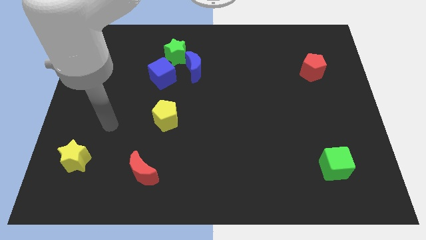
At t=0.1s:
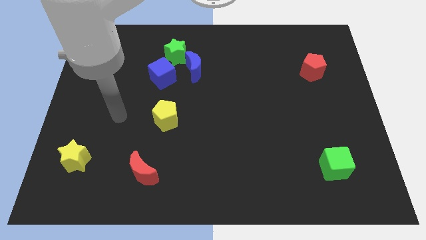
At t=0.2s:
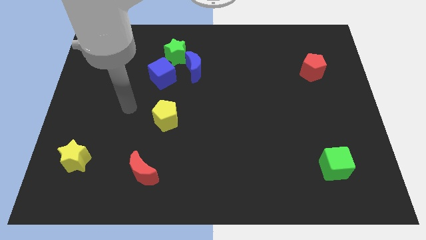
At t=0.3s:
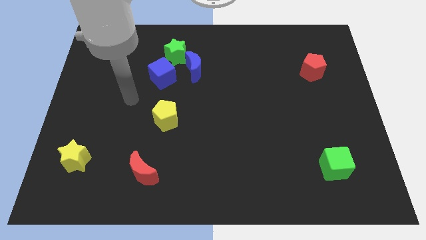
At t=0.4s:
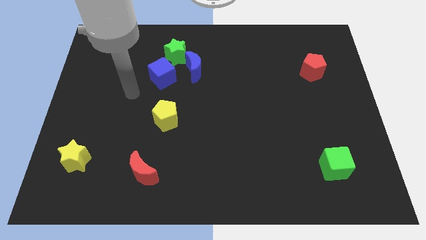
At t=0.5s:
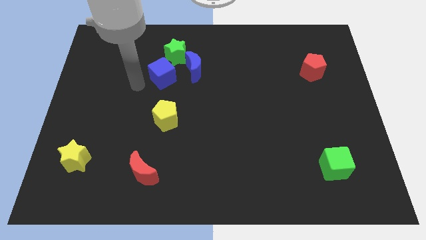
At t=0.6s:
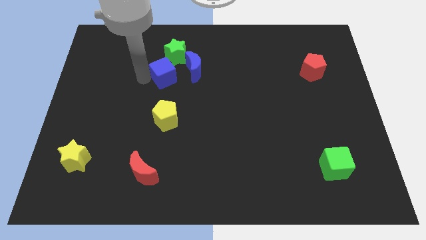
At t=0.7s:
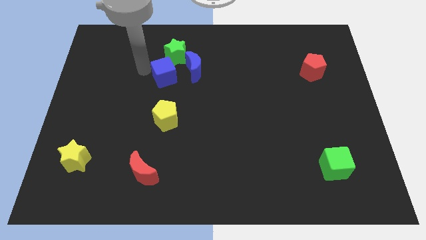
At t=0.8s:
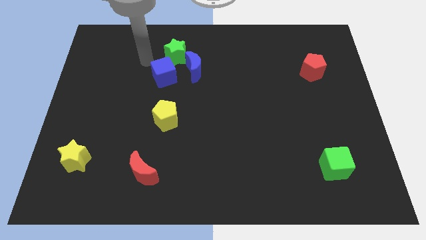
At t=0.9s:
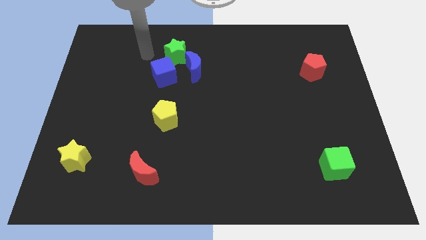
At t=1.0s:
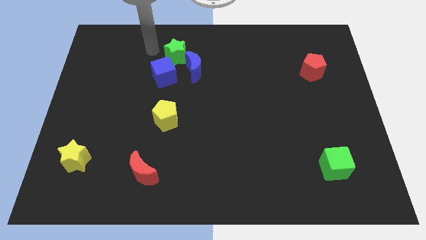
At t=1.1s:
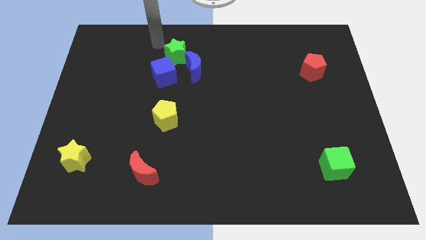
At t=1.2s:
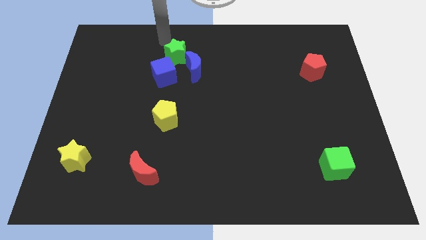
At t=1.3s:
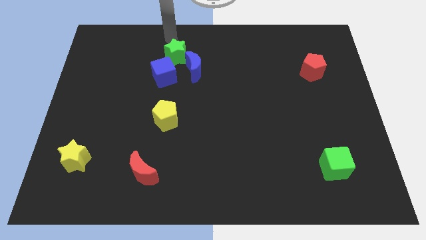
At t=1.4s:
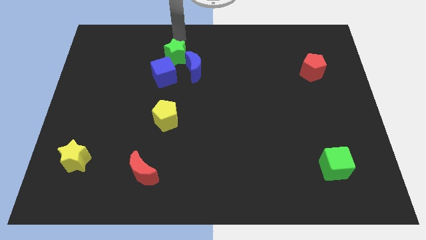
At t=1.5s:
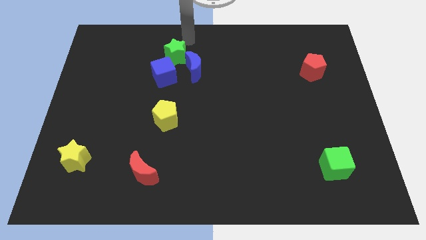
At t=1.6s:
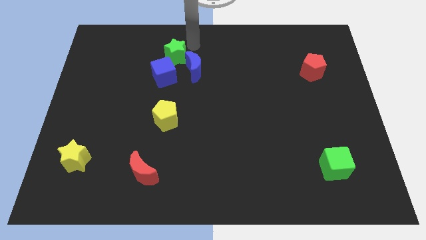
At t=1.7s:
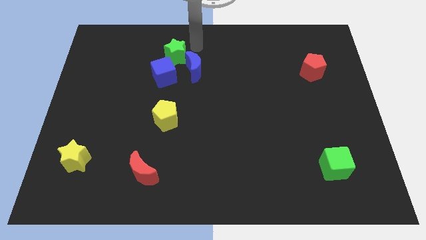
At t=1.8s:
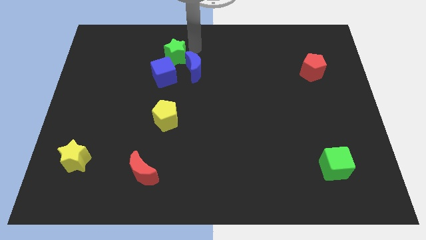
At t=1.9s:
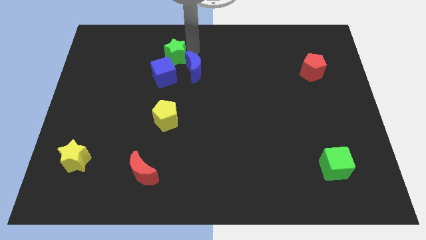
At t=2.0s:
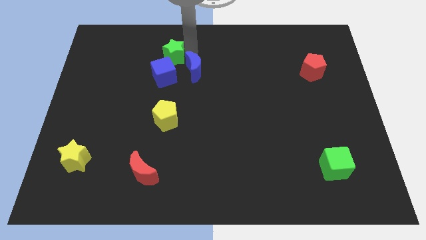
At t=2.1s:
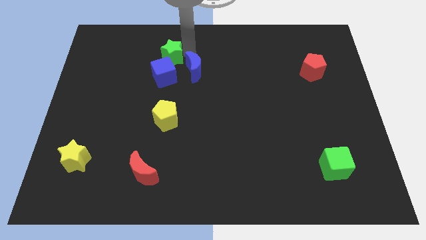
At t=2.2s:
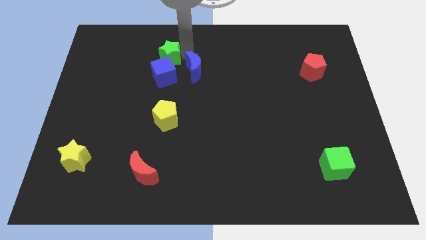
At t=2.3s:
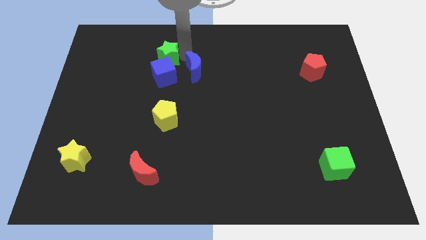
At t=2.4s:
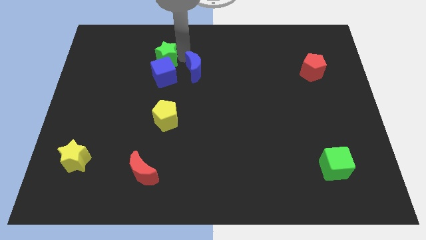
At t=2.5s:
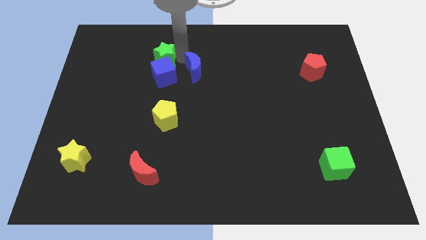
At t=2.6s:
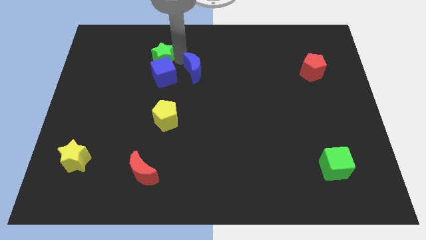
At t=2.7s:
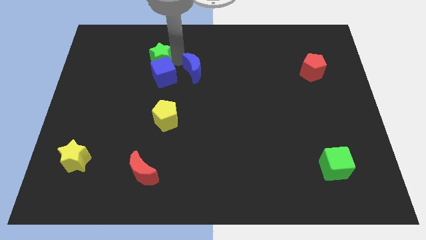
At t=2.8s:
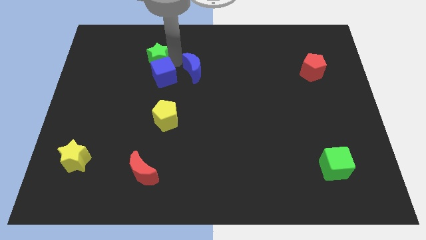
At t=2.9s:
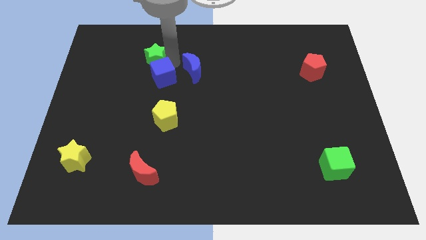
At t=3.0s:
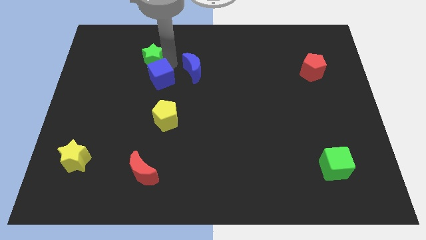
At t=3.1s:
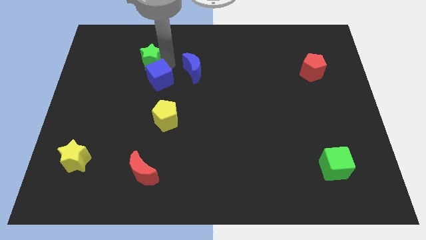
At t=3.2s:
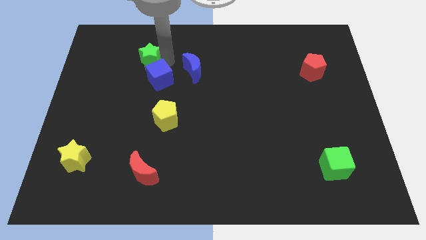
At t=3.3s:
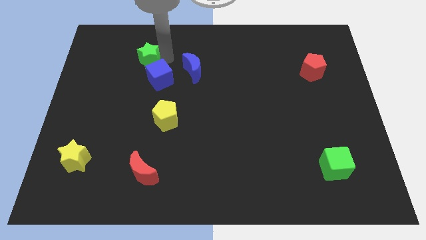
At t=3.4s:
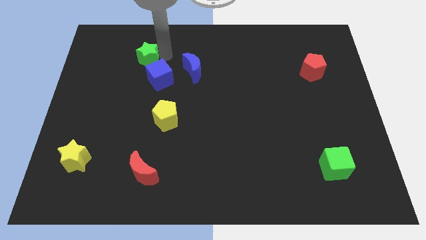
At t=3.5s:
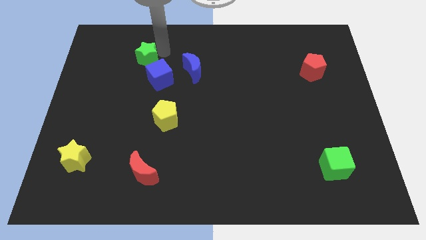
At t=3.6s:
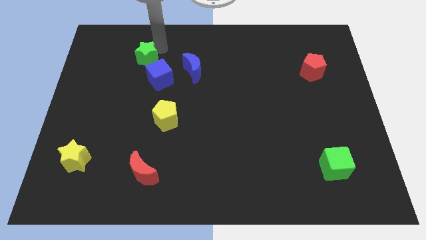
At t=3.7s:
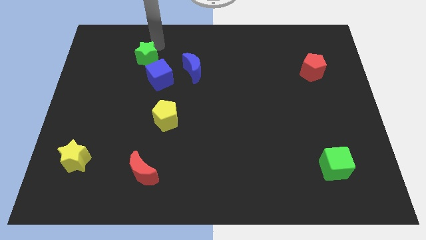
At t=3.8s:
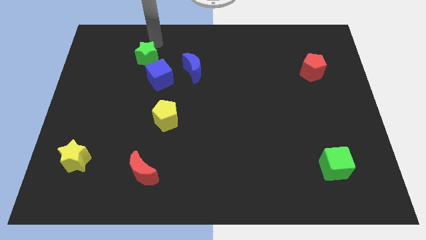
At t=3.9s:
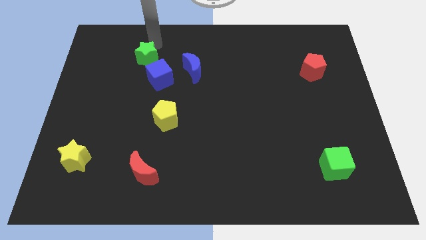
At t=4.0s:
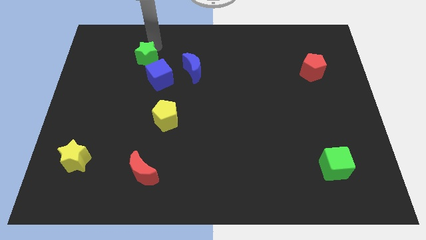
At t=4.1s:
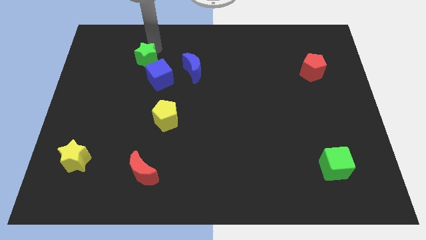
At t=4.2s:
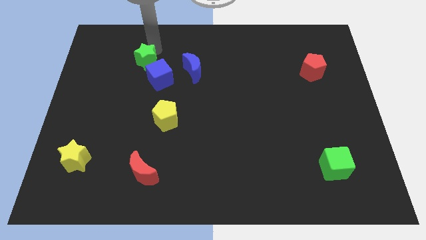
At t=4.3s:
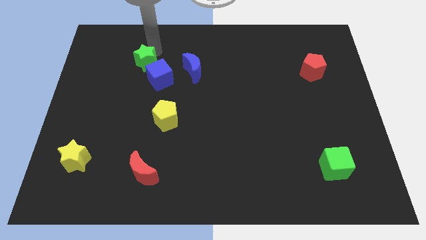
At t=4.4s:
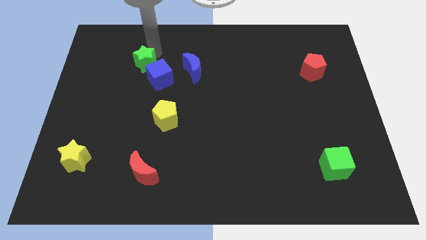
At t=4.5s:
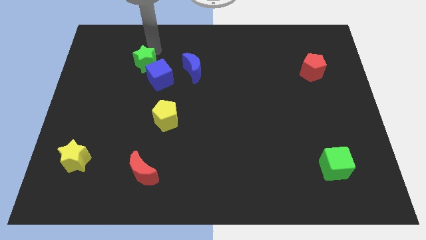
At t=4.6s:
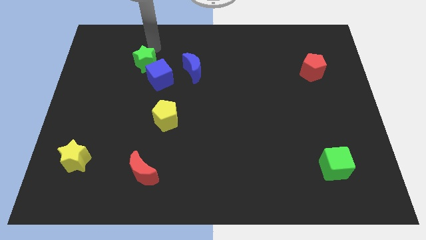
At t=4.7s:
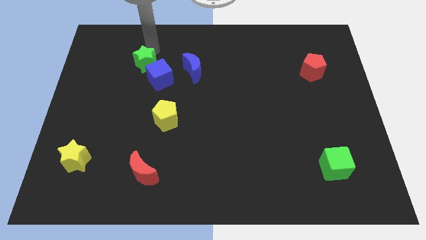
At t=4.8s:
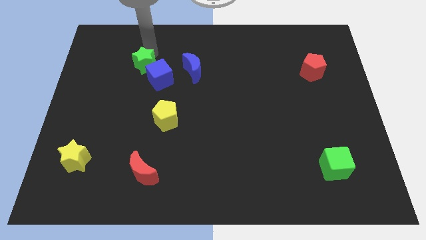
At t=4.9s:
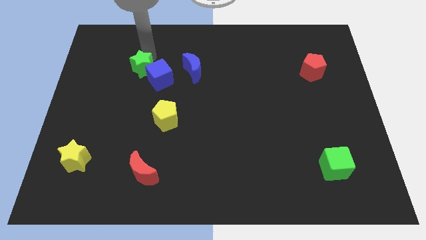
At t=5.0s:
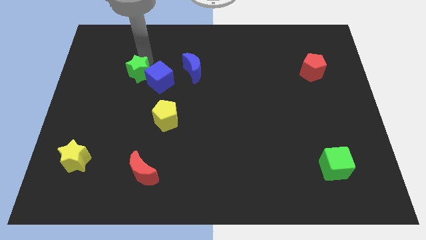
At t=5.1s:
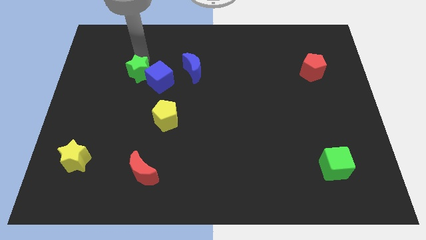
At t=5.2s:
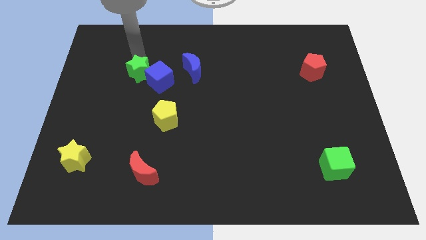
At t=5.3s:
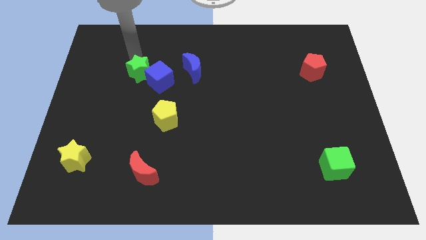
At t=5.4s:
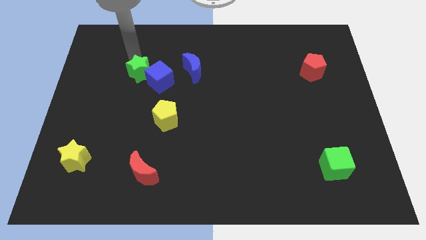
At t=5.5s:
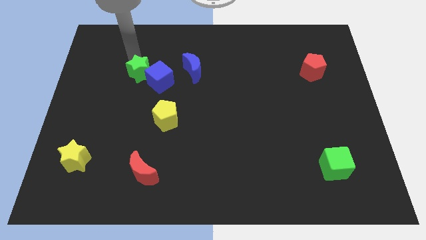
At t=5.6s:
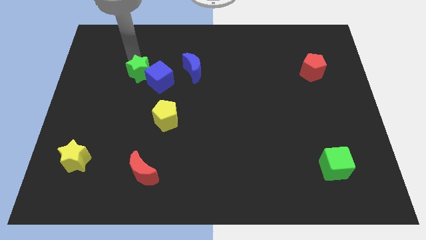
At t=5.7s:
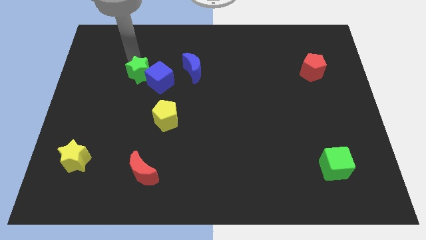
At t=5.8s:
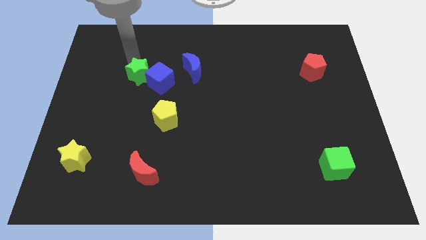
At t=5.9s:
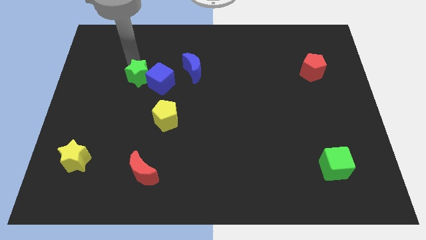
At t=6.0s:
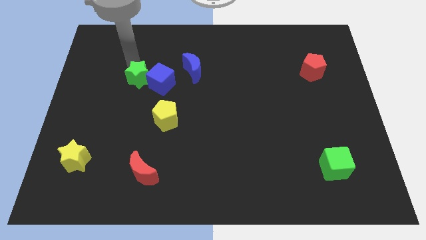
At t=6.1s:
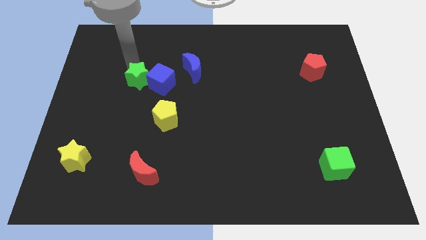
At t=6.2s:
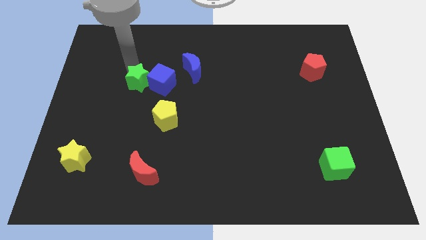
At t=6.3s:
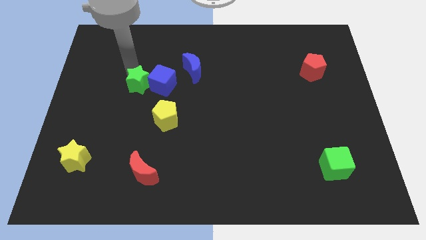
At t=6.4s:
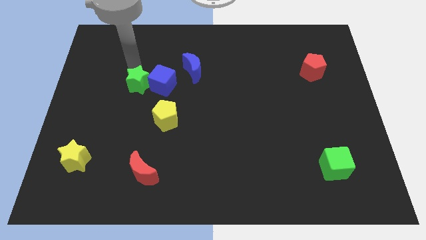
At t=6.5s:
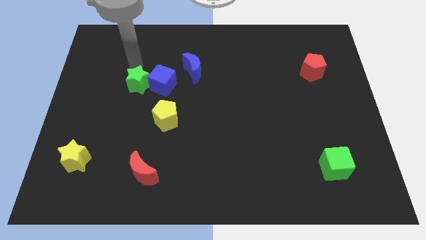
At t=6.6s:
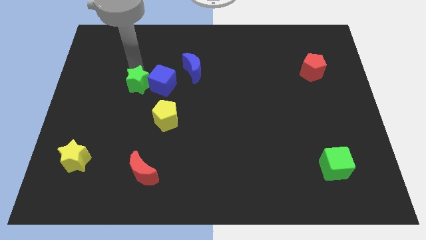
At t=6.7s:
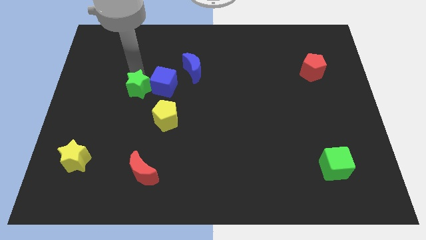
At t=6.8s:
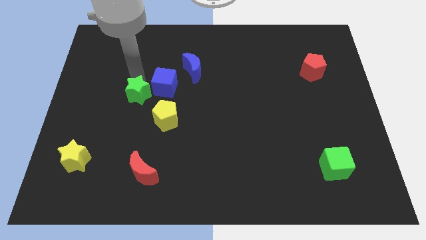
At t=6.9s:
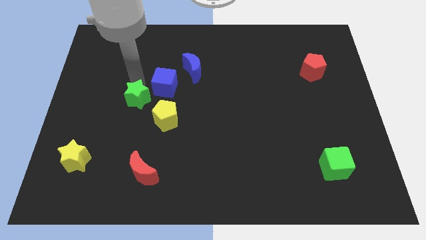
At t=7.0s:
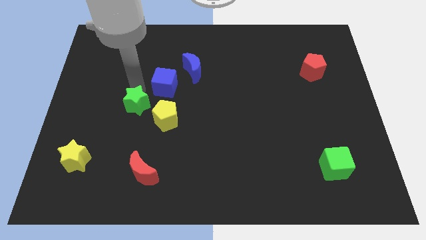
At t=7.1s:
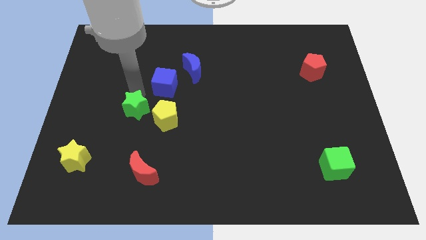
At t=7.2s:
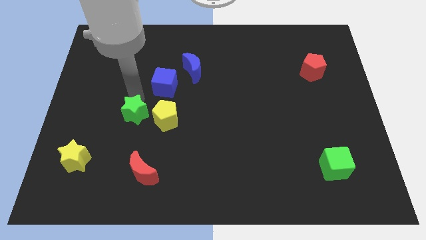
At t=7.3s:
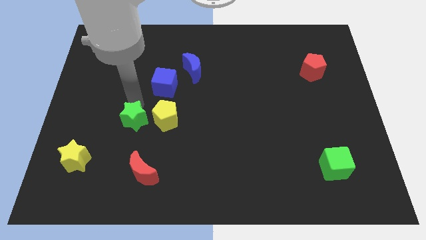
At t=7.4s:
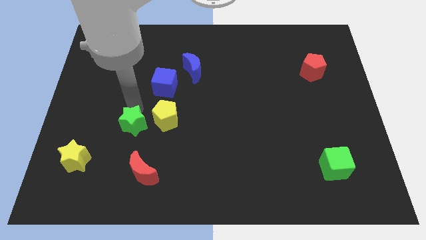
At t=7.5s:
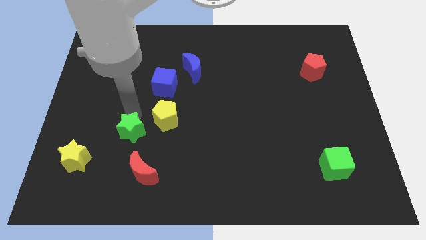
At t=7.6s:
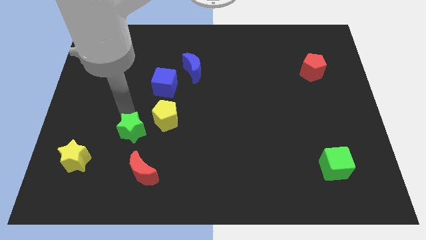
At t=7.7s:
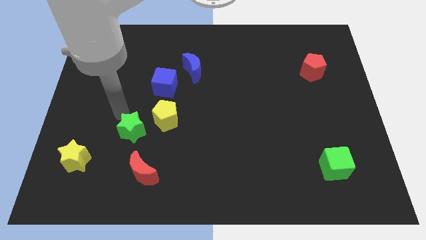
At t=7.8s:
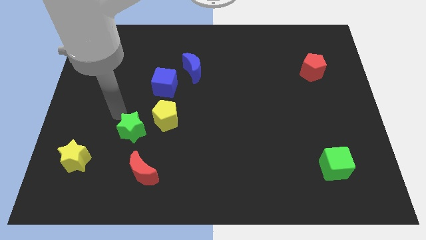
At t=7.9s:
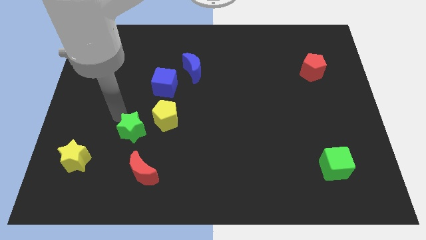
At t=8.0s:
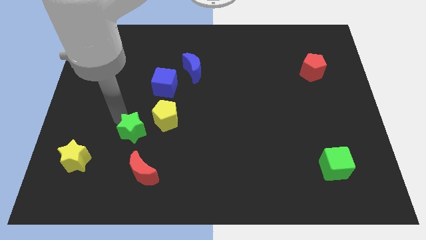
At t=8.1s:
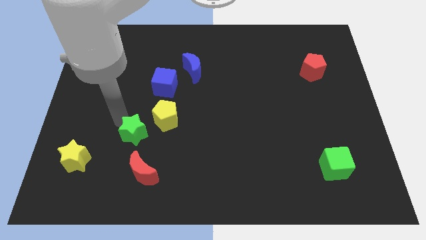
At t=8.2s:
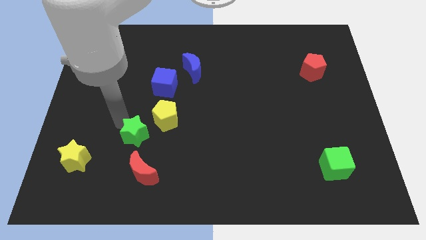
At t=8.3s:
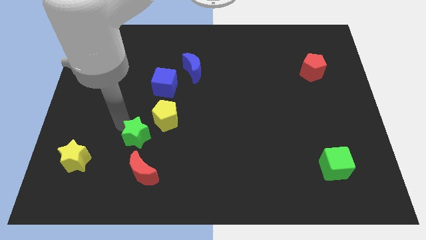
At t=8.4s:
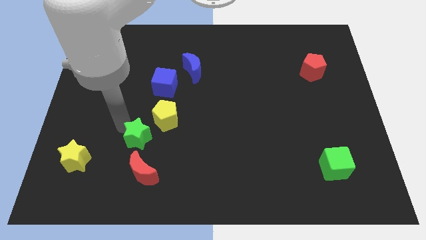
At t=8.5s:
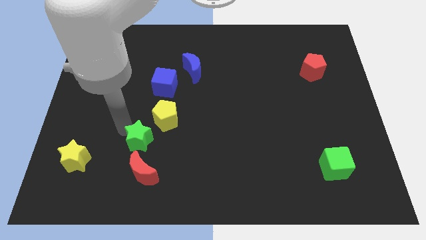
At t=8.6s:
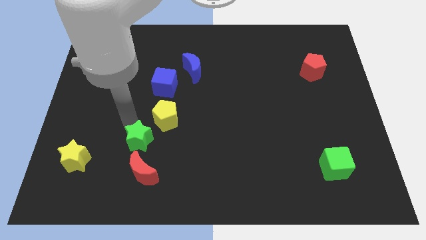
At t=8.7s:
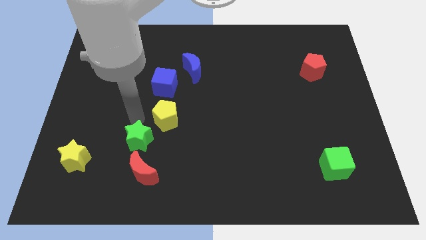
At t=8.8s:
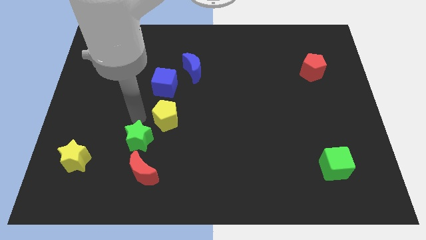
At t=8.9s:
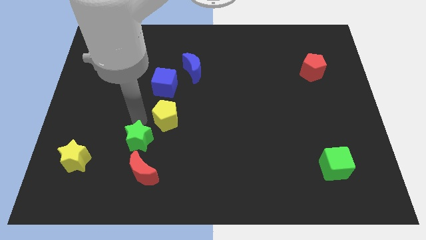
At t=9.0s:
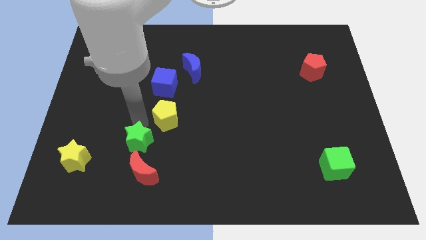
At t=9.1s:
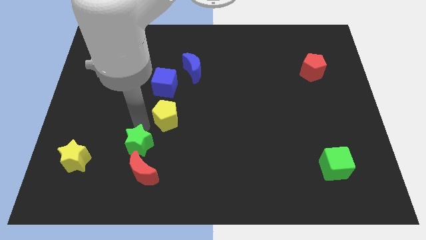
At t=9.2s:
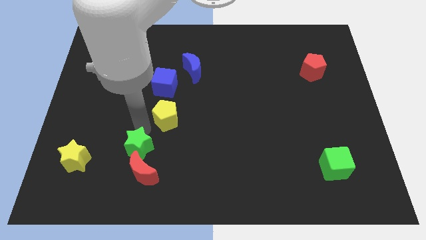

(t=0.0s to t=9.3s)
push the green star next to the red moon
